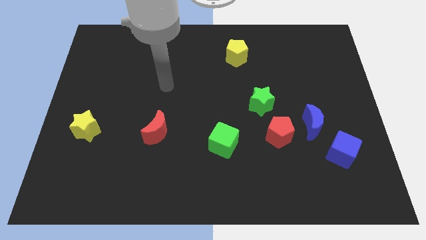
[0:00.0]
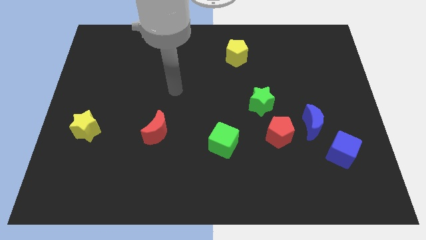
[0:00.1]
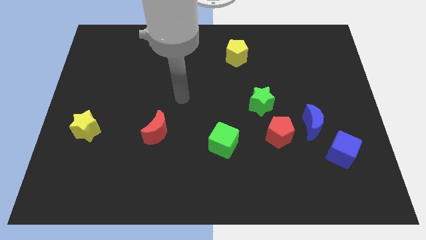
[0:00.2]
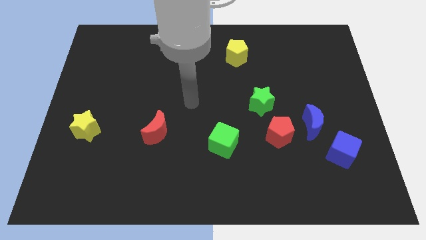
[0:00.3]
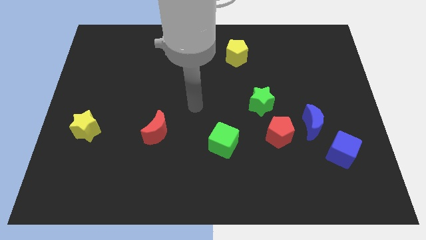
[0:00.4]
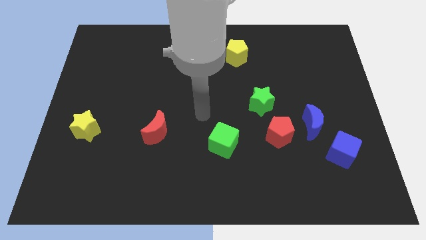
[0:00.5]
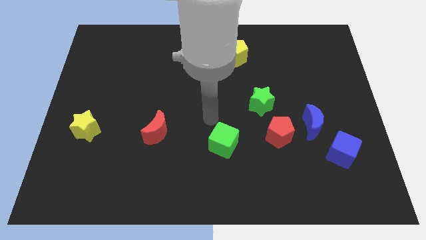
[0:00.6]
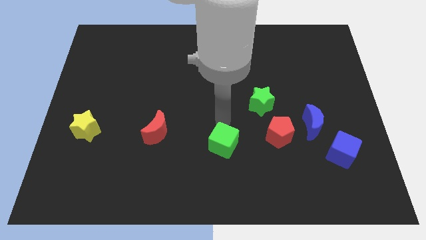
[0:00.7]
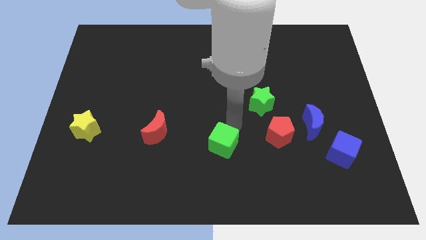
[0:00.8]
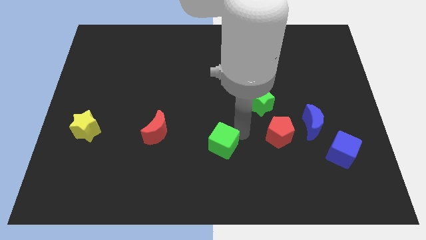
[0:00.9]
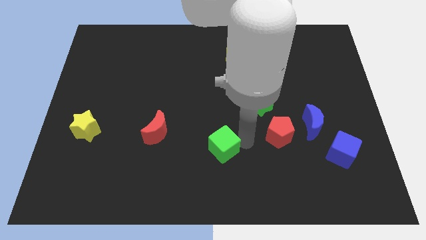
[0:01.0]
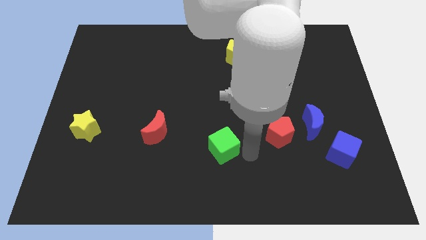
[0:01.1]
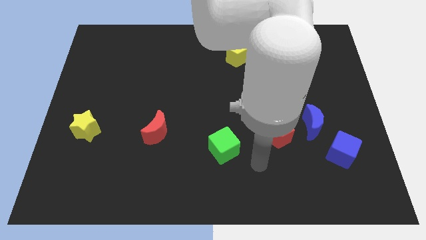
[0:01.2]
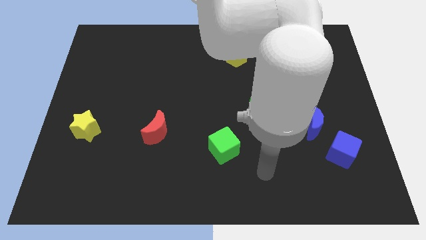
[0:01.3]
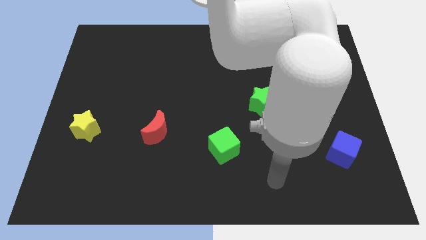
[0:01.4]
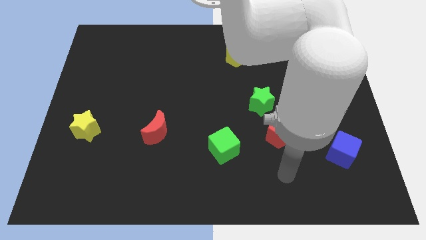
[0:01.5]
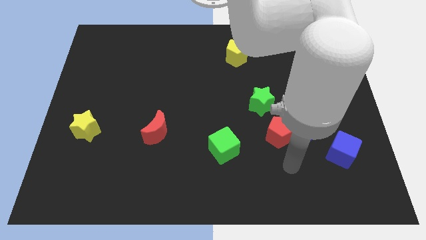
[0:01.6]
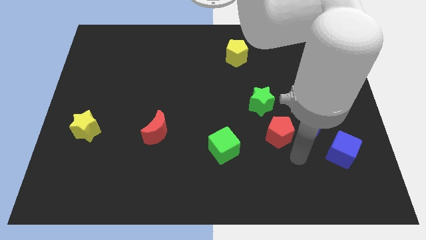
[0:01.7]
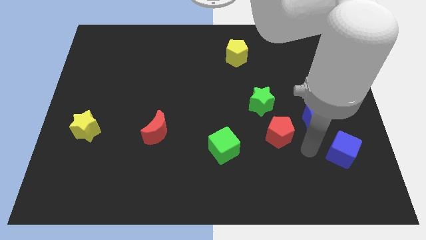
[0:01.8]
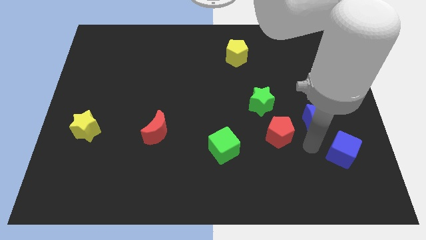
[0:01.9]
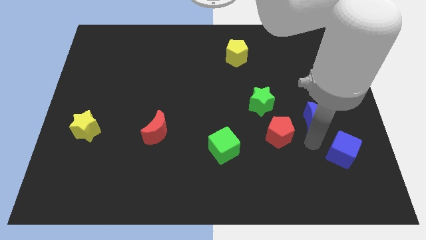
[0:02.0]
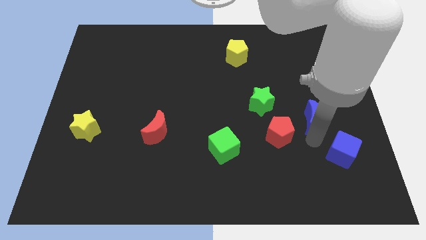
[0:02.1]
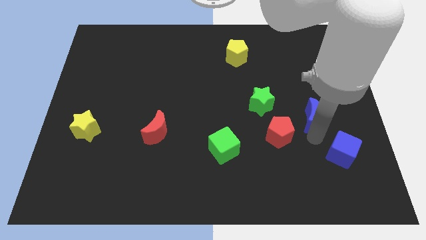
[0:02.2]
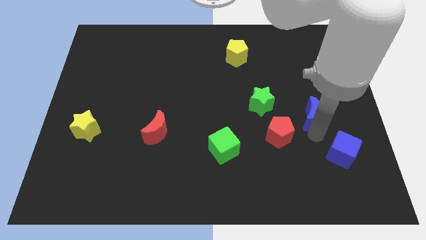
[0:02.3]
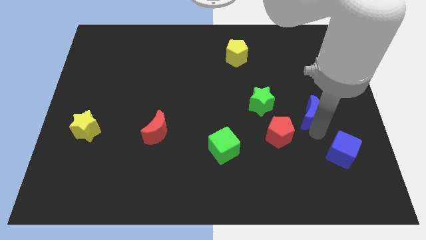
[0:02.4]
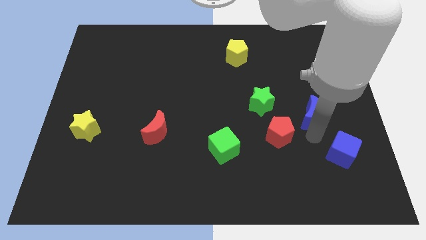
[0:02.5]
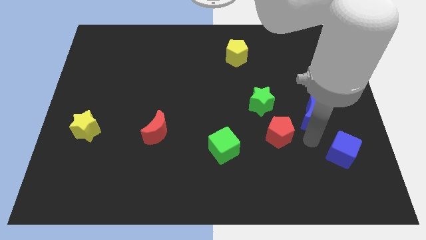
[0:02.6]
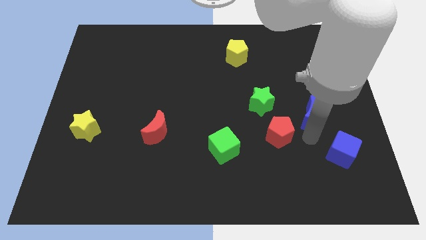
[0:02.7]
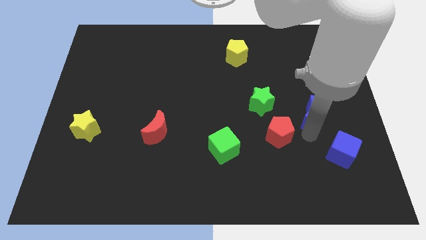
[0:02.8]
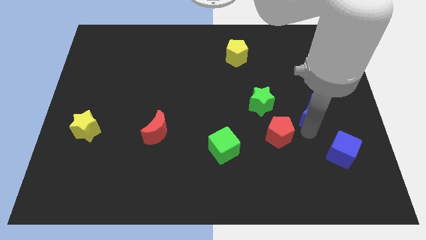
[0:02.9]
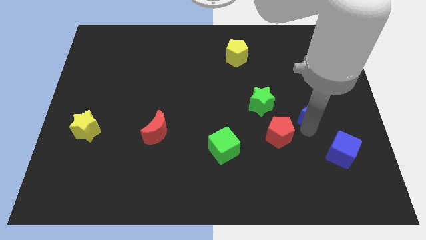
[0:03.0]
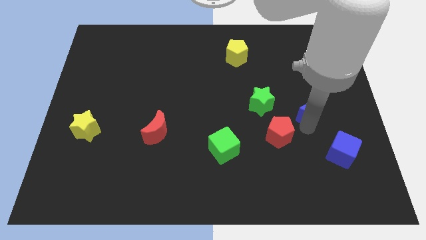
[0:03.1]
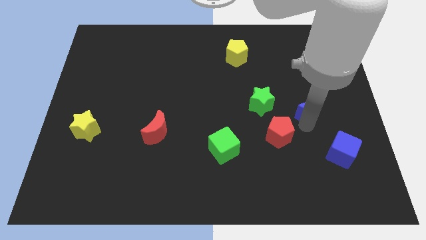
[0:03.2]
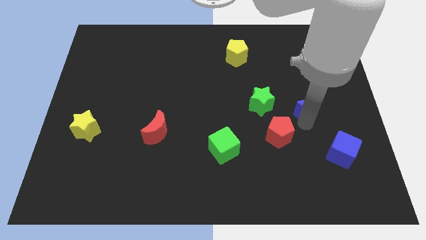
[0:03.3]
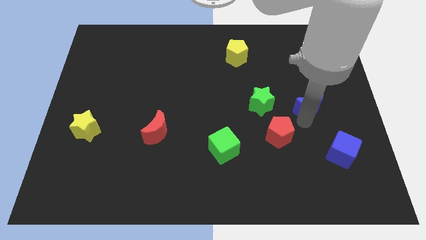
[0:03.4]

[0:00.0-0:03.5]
move the blue moon away from the red pentagon and blue cube

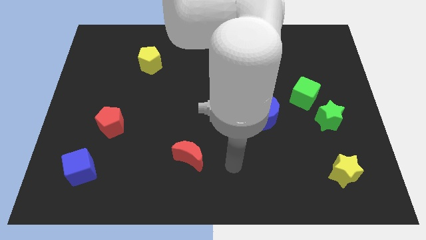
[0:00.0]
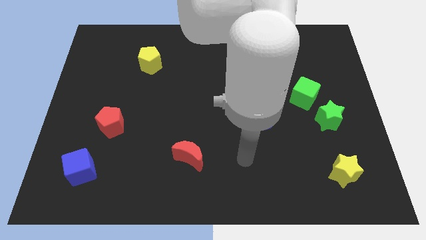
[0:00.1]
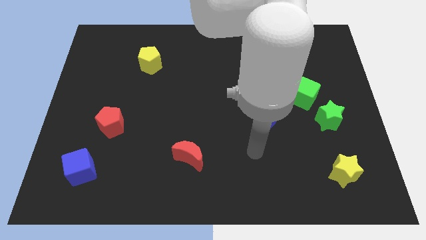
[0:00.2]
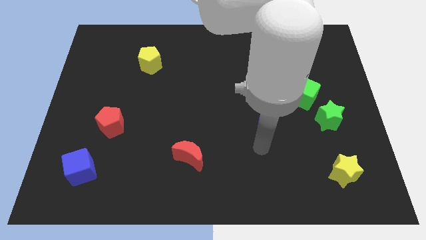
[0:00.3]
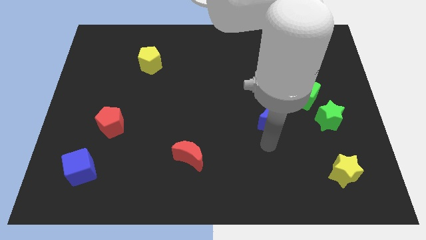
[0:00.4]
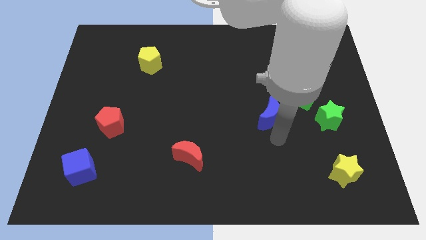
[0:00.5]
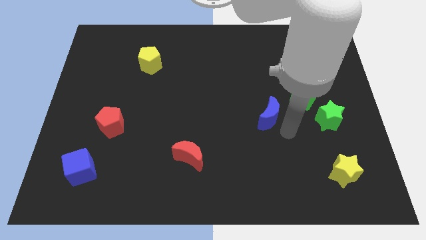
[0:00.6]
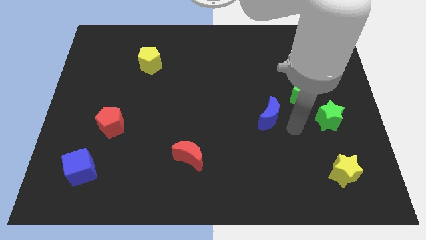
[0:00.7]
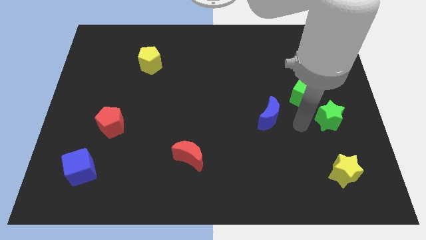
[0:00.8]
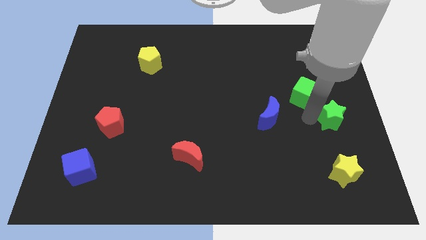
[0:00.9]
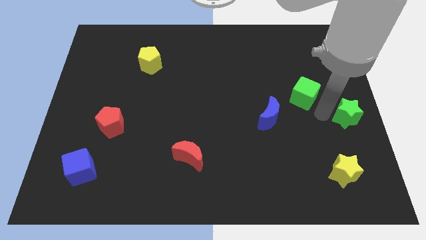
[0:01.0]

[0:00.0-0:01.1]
separate the green cube from the green star

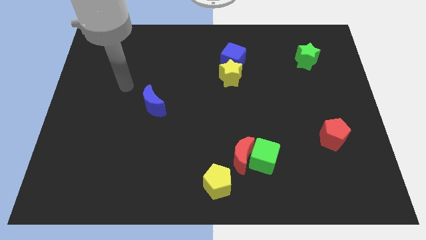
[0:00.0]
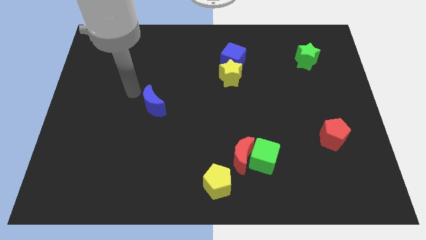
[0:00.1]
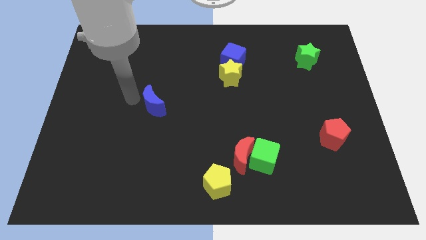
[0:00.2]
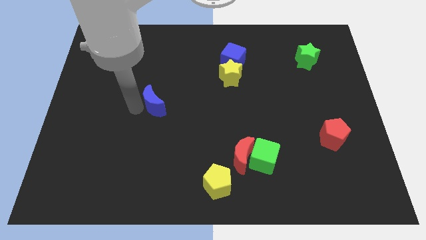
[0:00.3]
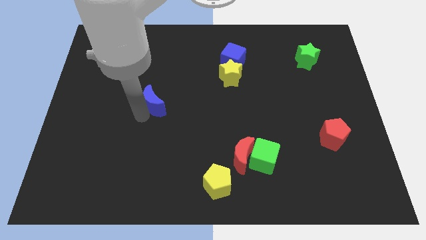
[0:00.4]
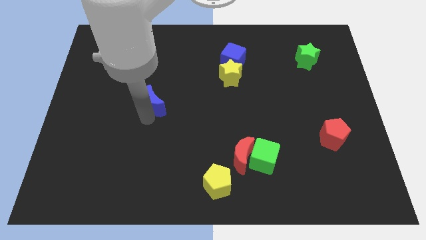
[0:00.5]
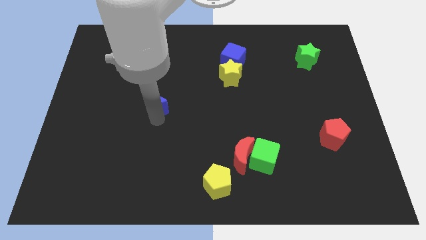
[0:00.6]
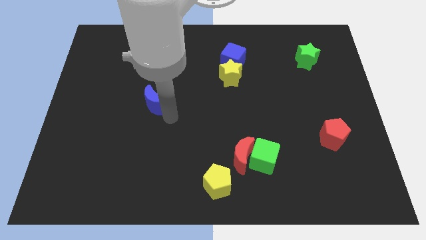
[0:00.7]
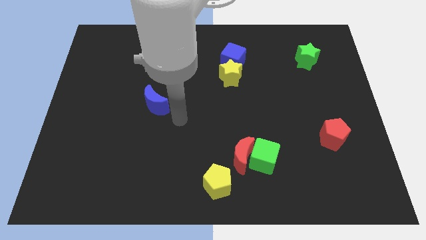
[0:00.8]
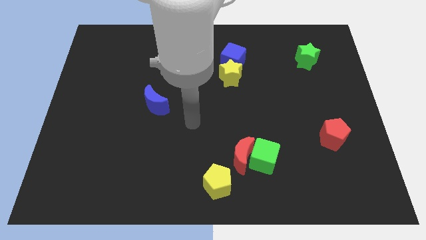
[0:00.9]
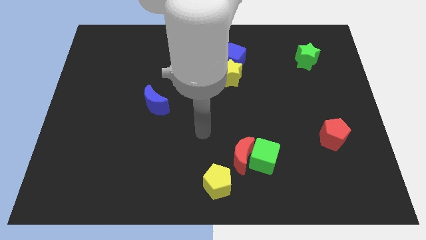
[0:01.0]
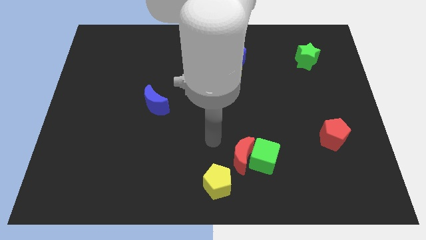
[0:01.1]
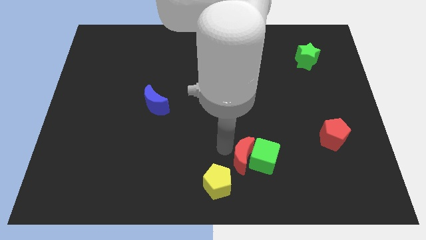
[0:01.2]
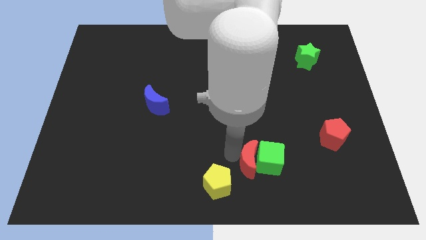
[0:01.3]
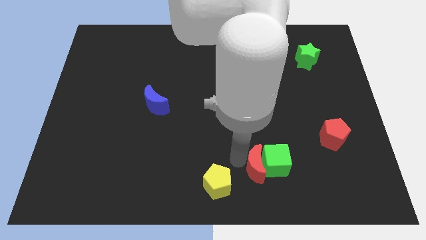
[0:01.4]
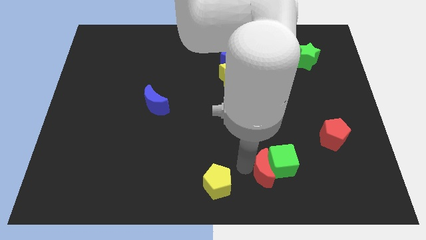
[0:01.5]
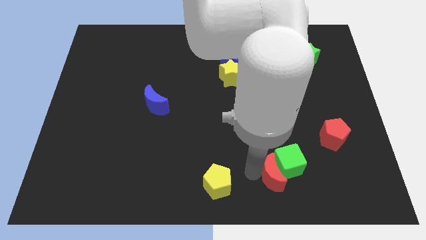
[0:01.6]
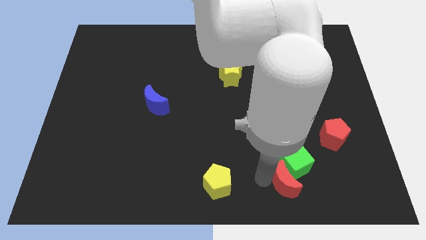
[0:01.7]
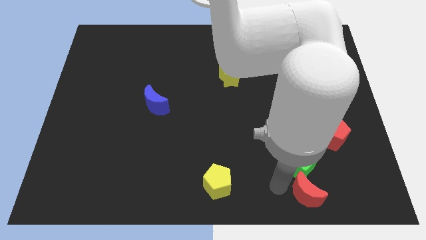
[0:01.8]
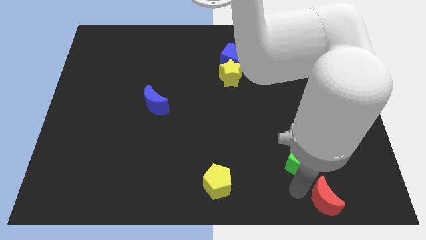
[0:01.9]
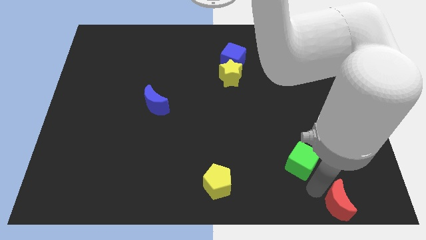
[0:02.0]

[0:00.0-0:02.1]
move the green cube away from the red moon

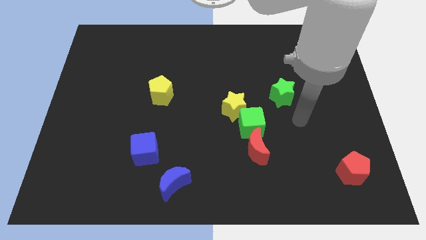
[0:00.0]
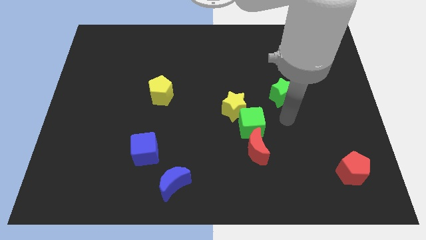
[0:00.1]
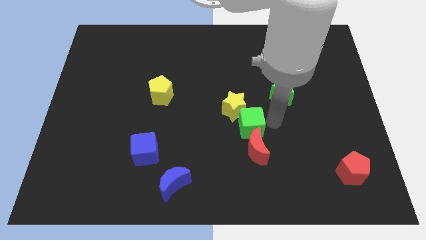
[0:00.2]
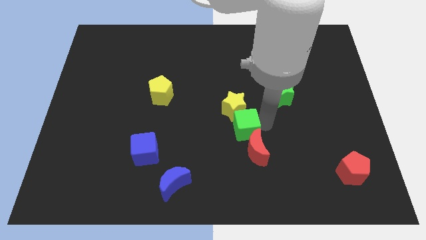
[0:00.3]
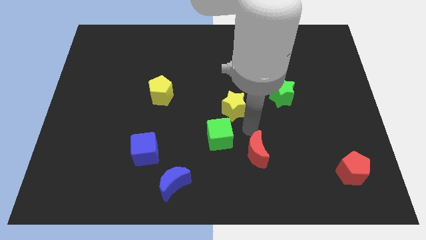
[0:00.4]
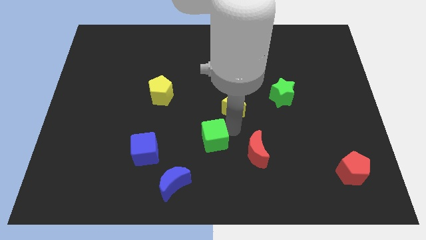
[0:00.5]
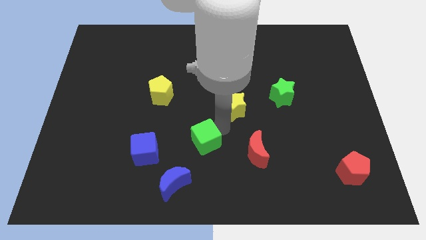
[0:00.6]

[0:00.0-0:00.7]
separate the yellow star from the green cube

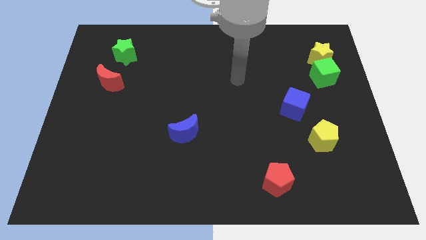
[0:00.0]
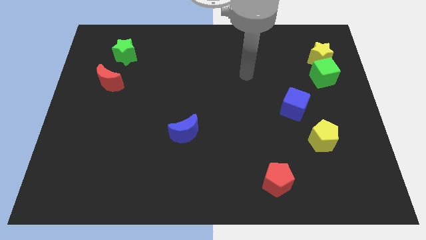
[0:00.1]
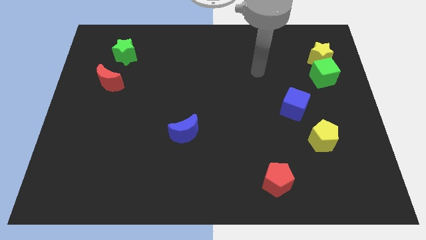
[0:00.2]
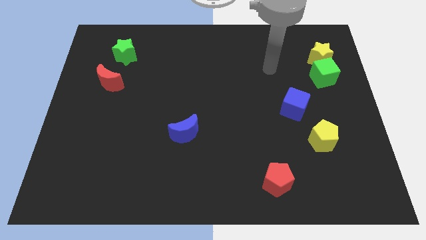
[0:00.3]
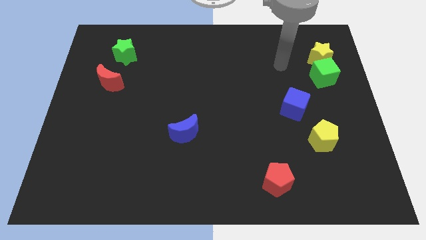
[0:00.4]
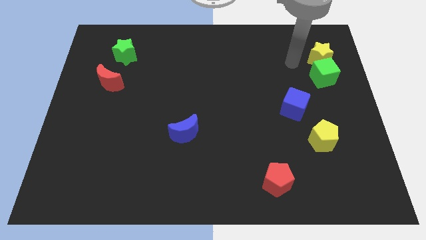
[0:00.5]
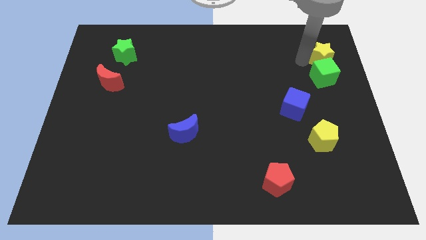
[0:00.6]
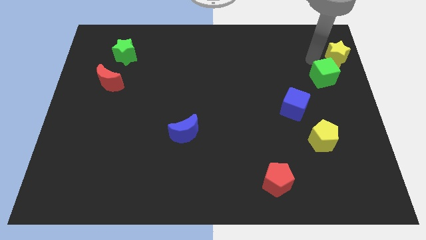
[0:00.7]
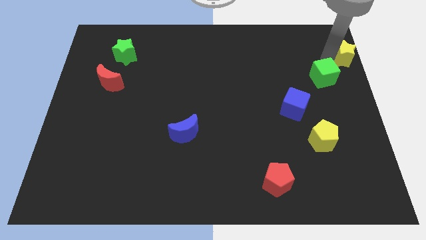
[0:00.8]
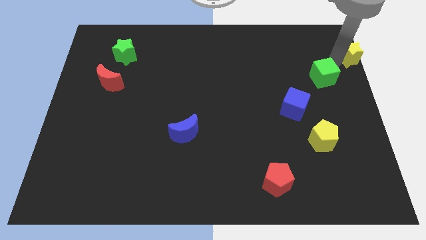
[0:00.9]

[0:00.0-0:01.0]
pull the green cube apart from the yellow star

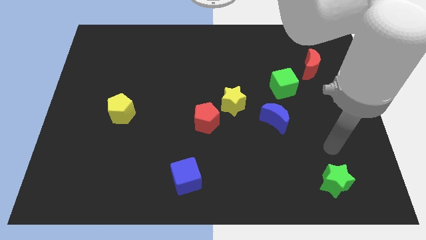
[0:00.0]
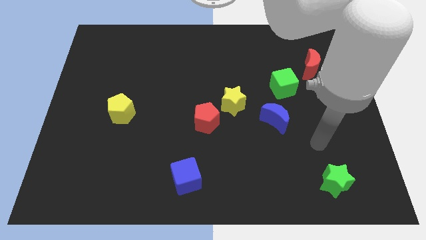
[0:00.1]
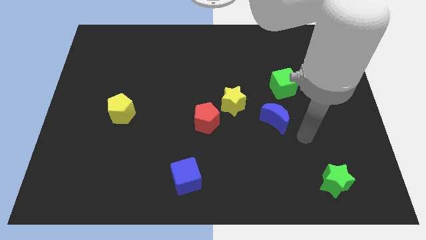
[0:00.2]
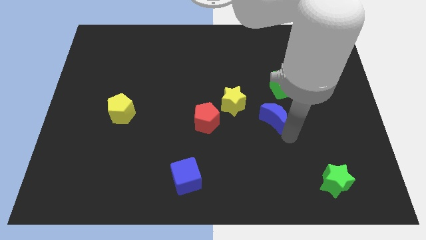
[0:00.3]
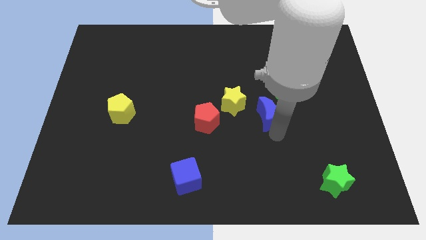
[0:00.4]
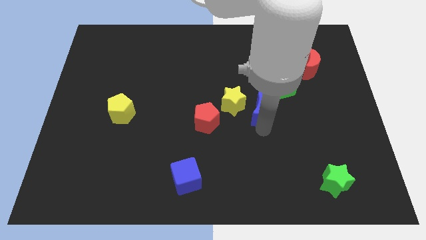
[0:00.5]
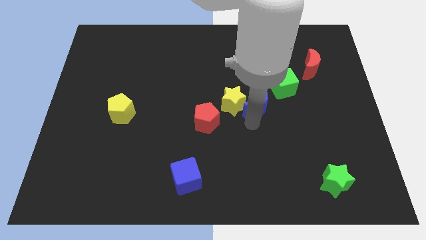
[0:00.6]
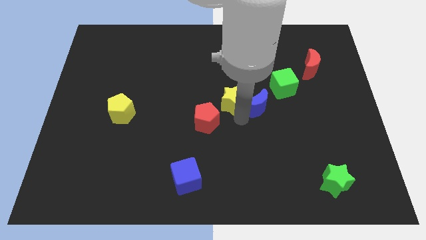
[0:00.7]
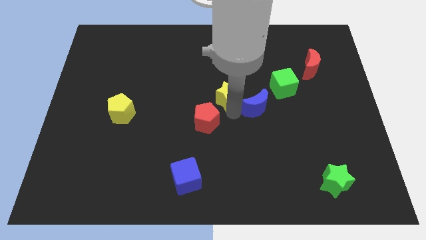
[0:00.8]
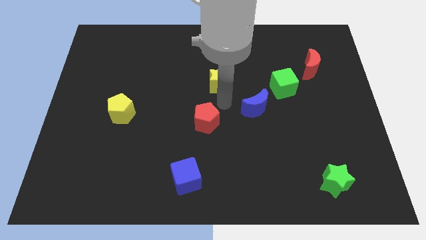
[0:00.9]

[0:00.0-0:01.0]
pull the red pentagon apart from the yellow star
